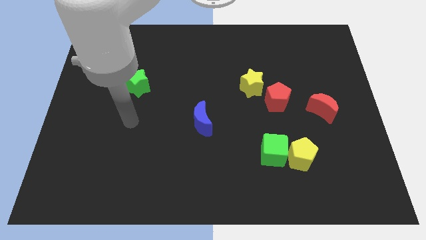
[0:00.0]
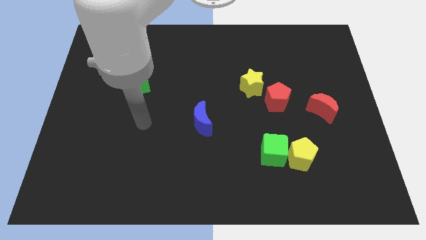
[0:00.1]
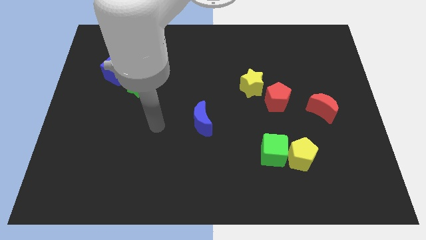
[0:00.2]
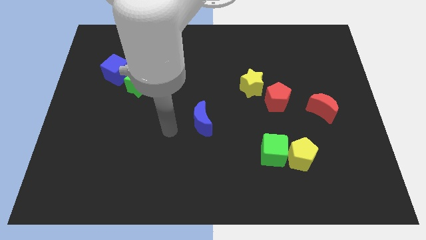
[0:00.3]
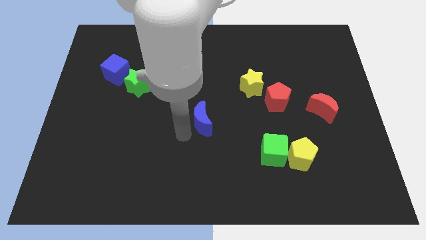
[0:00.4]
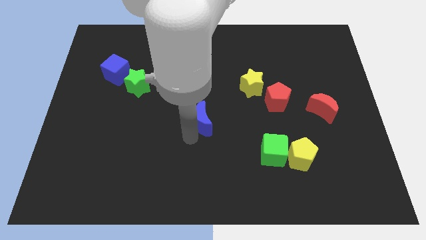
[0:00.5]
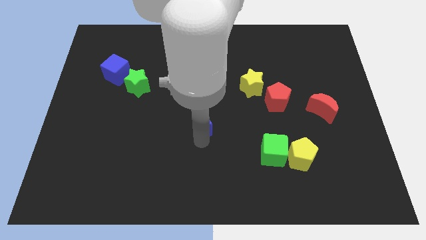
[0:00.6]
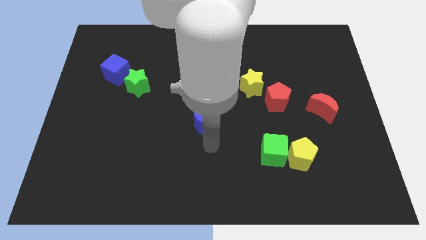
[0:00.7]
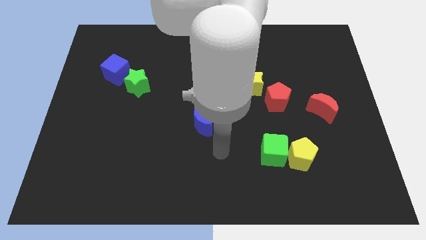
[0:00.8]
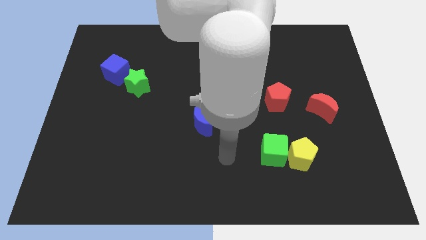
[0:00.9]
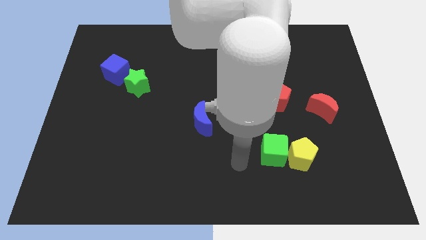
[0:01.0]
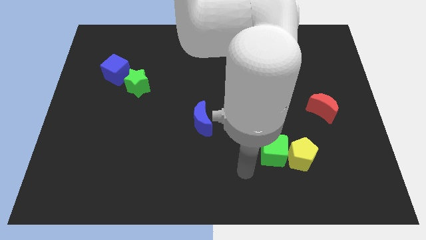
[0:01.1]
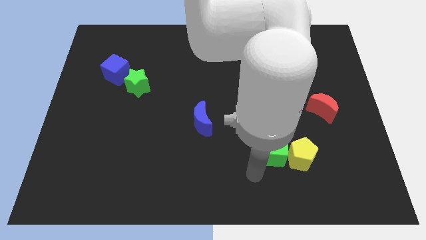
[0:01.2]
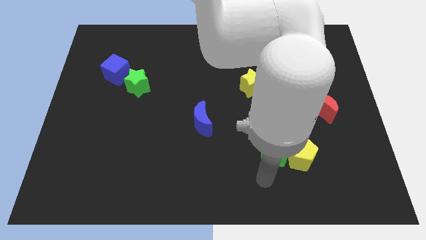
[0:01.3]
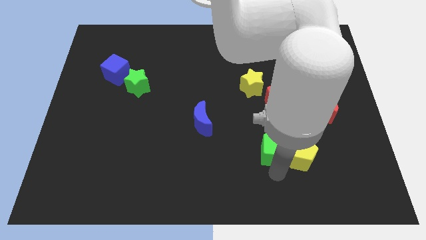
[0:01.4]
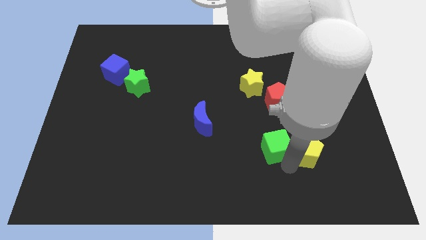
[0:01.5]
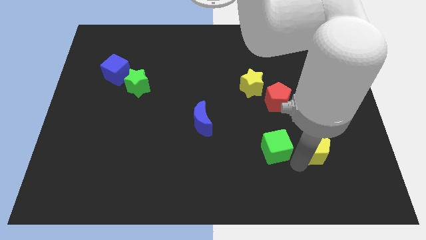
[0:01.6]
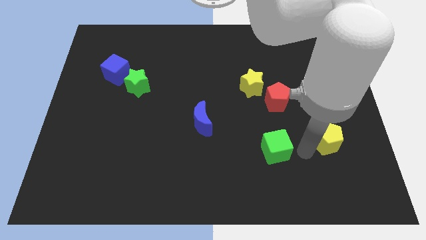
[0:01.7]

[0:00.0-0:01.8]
move the green cube away from the yellow pentagon

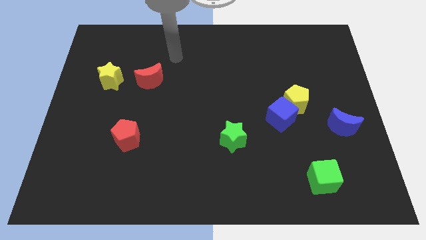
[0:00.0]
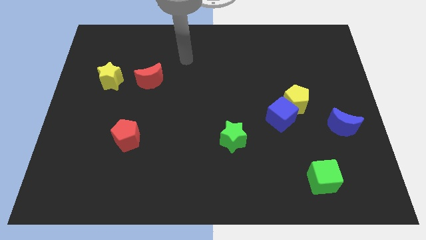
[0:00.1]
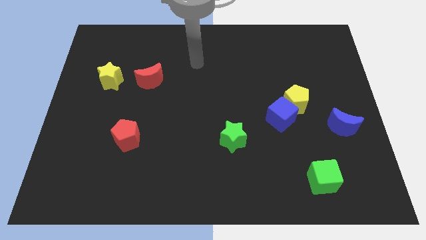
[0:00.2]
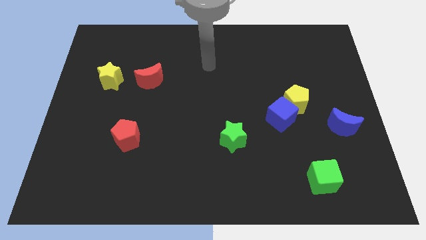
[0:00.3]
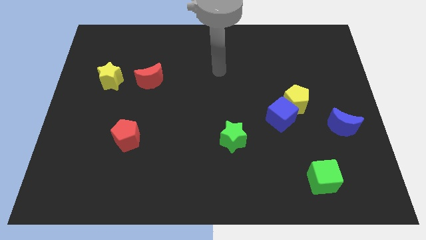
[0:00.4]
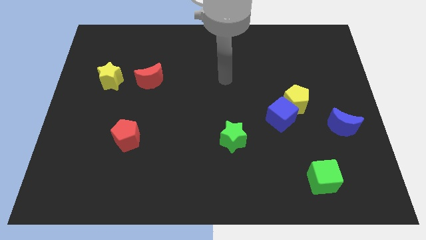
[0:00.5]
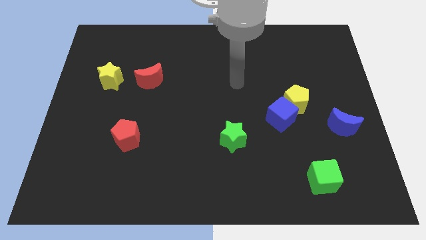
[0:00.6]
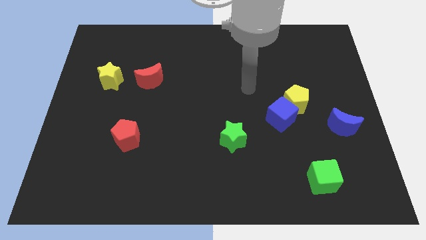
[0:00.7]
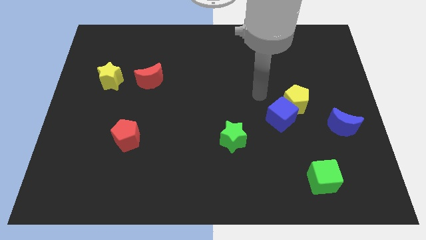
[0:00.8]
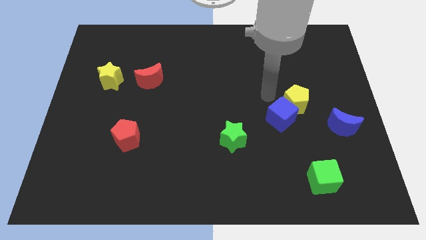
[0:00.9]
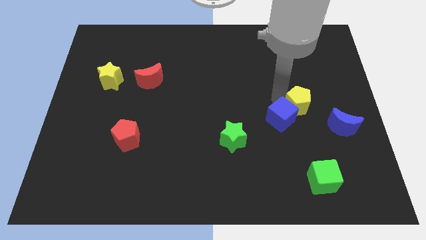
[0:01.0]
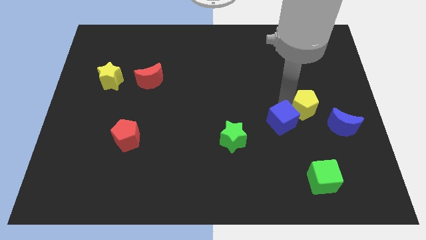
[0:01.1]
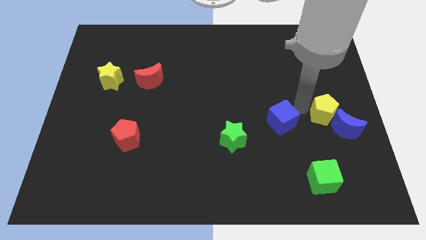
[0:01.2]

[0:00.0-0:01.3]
pull the blue cube apart from the yellow pentagon

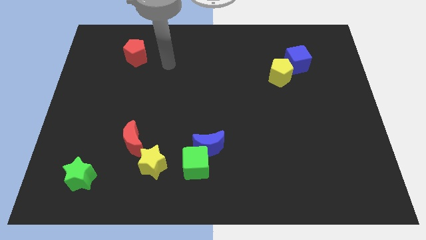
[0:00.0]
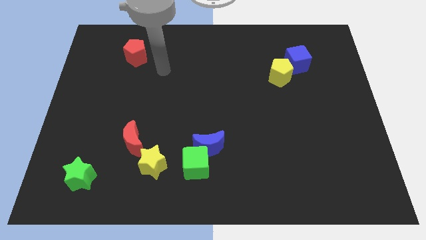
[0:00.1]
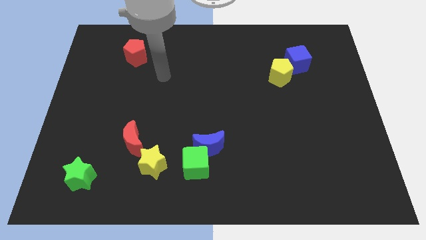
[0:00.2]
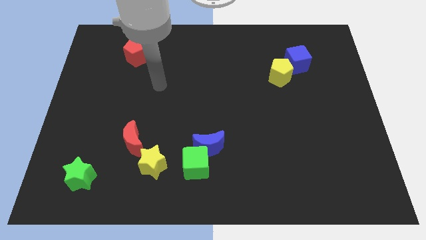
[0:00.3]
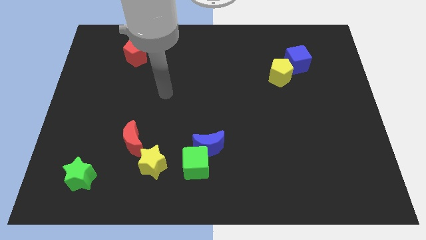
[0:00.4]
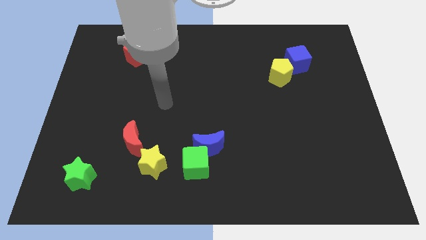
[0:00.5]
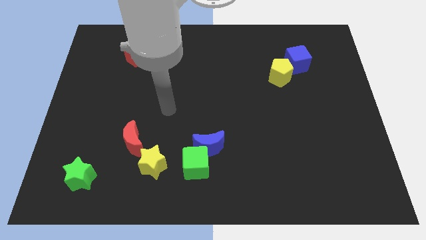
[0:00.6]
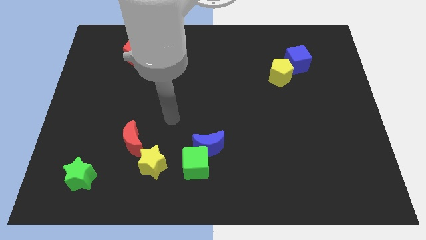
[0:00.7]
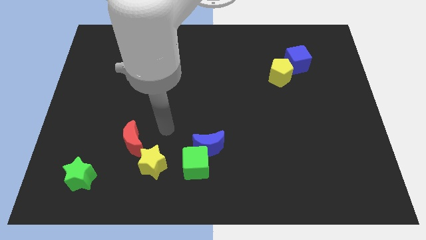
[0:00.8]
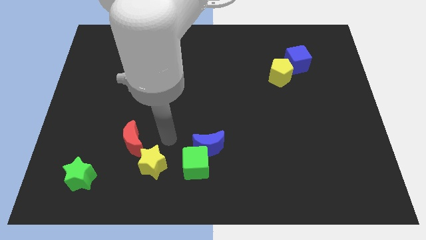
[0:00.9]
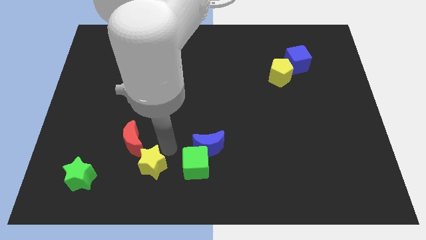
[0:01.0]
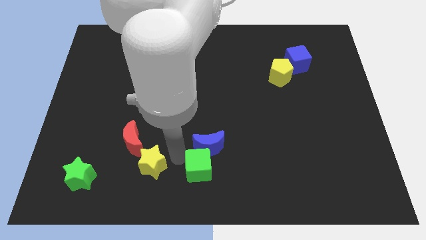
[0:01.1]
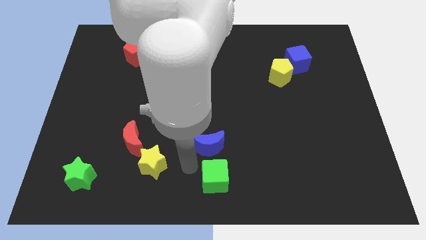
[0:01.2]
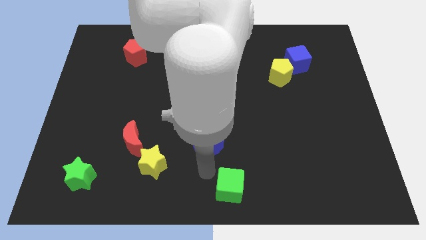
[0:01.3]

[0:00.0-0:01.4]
pull the blue moon apart from the green cube

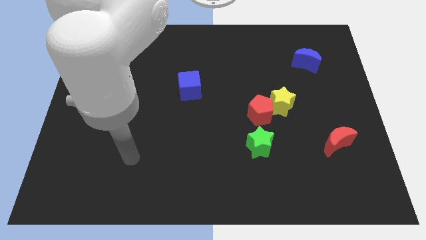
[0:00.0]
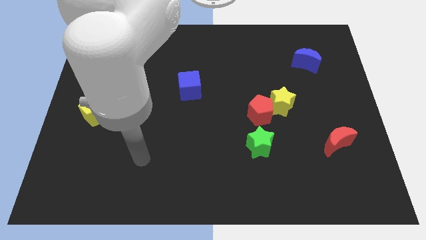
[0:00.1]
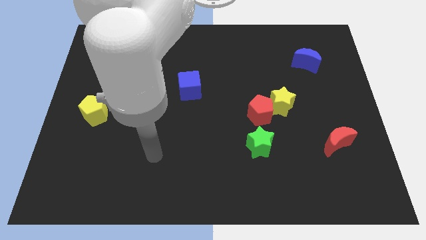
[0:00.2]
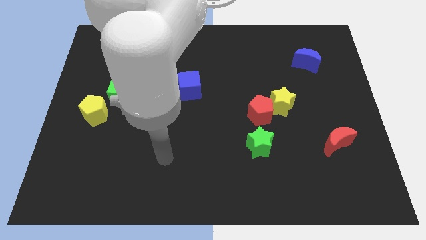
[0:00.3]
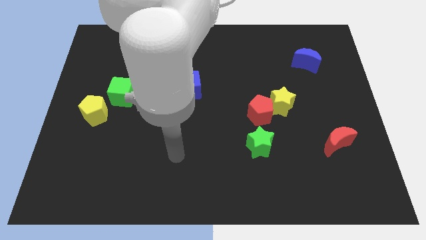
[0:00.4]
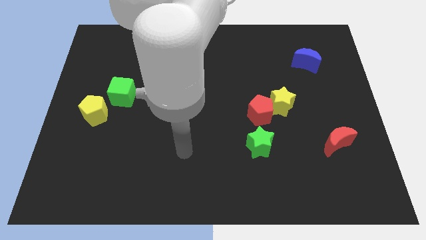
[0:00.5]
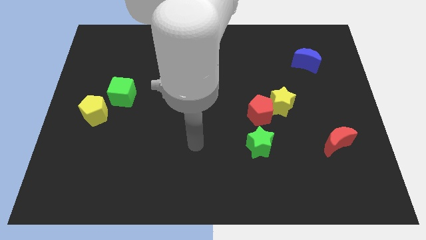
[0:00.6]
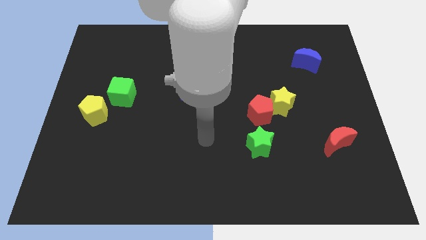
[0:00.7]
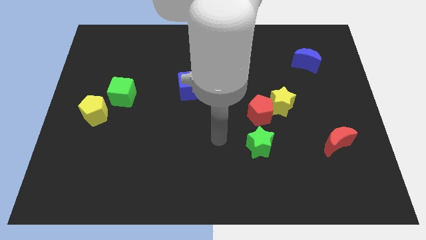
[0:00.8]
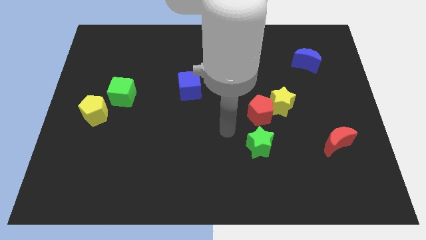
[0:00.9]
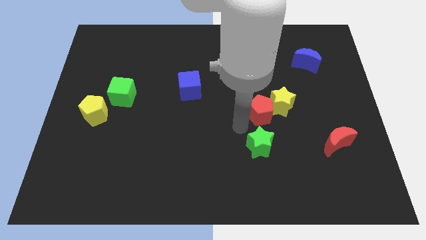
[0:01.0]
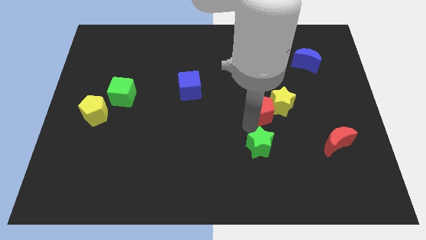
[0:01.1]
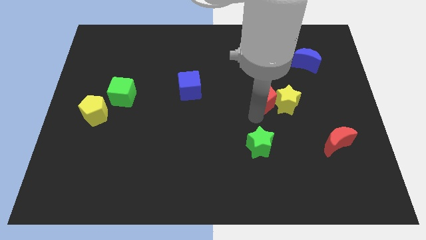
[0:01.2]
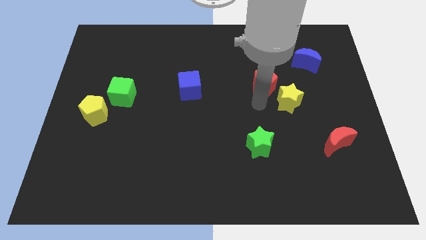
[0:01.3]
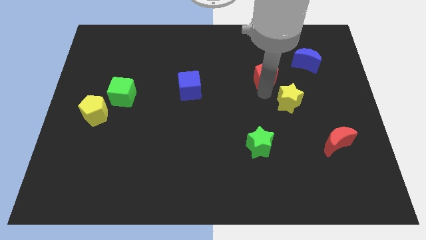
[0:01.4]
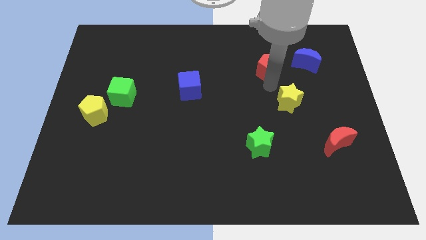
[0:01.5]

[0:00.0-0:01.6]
separate the yellow star from the red pentagon

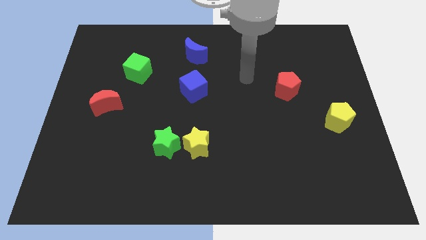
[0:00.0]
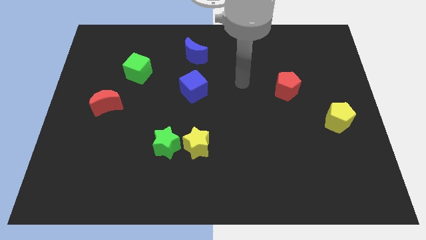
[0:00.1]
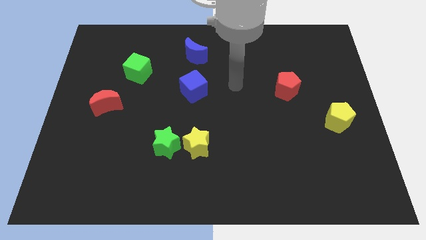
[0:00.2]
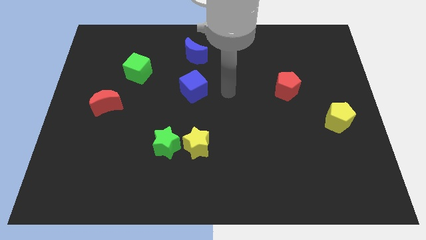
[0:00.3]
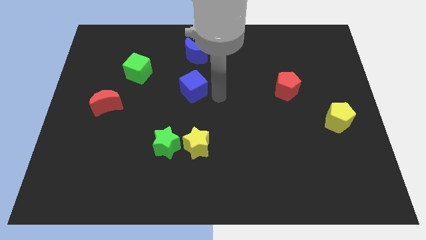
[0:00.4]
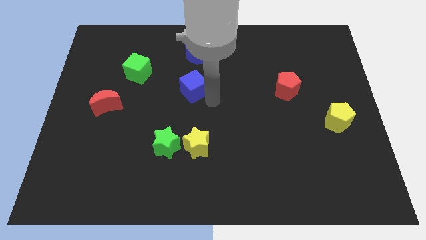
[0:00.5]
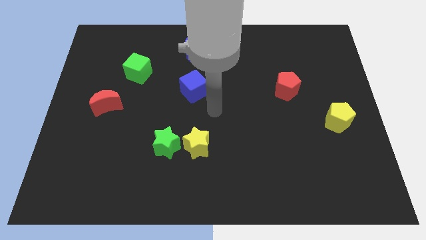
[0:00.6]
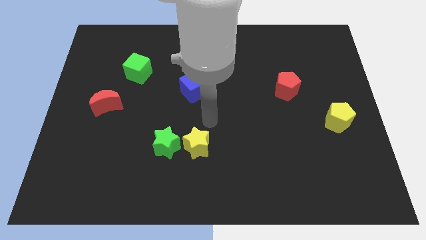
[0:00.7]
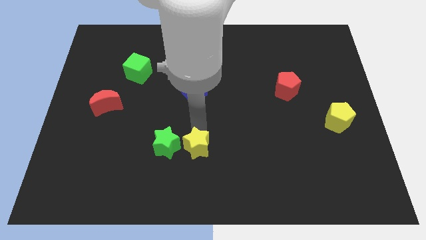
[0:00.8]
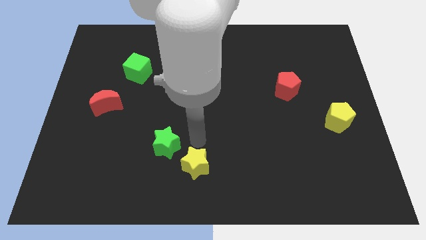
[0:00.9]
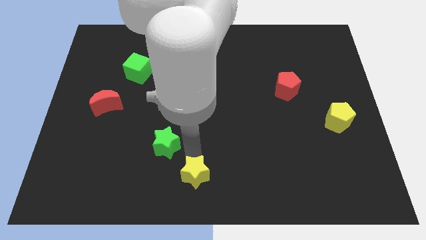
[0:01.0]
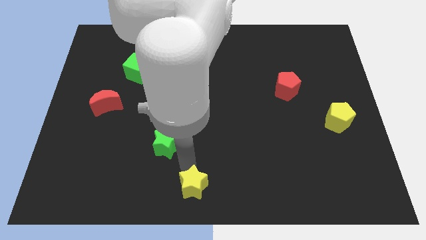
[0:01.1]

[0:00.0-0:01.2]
move the green star away from the yellow star

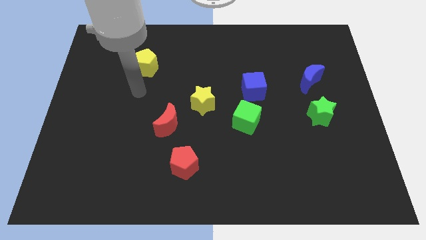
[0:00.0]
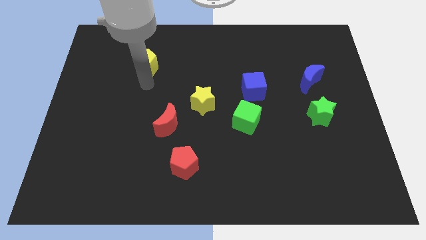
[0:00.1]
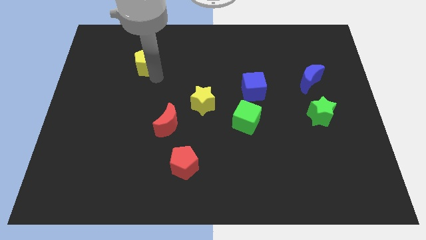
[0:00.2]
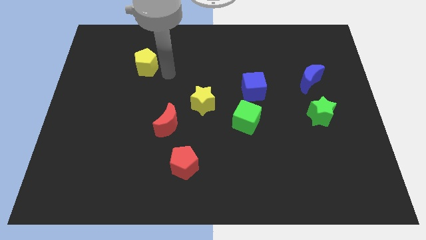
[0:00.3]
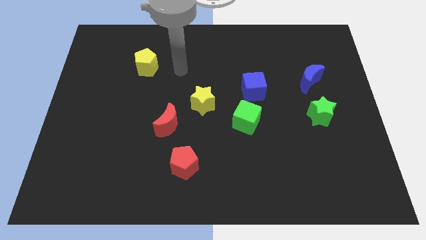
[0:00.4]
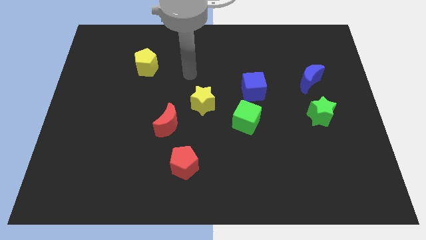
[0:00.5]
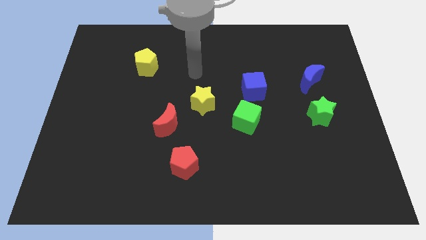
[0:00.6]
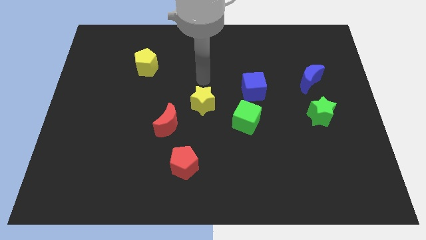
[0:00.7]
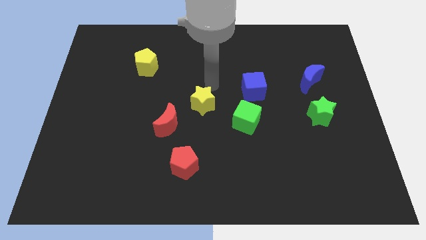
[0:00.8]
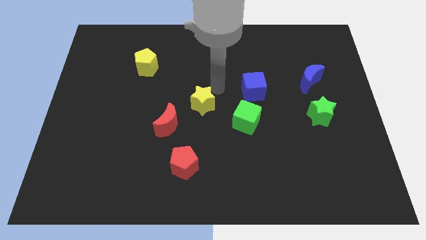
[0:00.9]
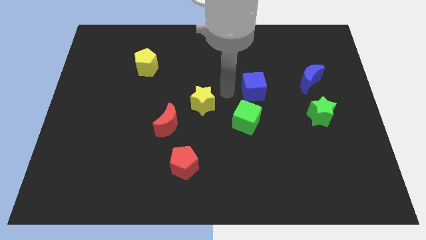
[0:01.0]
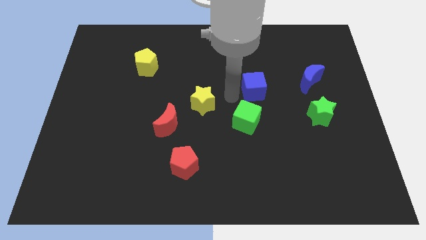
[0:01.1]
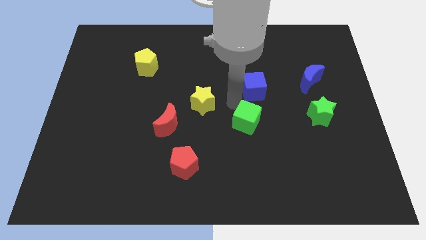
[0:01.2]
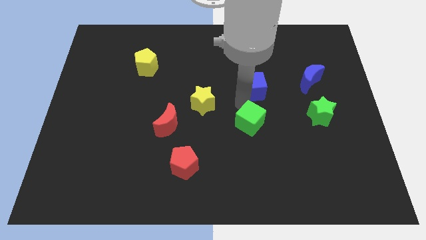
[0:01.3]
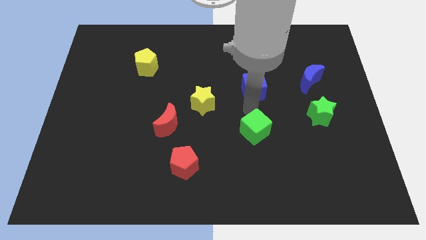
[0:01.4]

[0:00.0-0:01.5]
move the blue cube away from the green cube

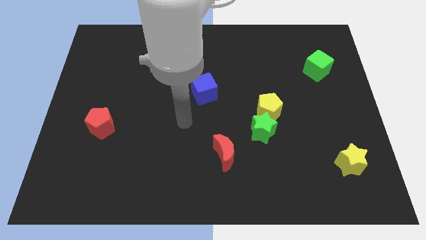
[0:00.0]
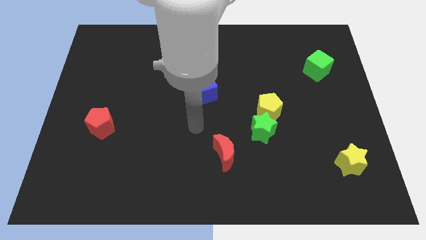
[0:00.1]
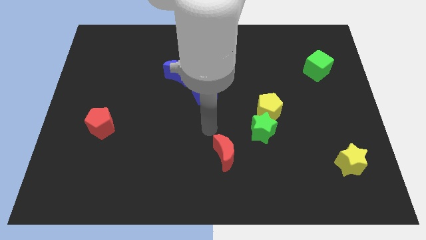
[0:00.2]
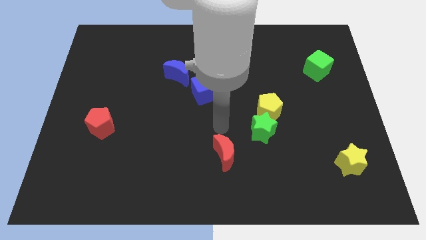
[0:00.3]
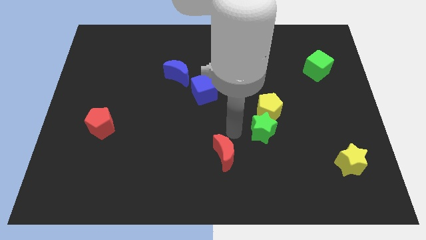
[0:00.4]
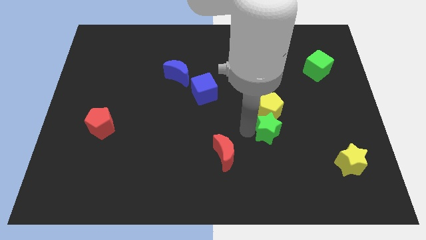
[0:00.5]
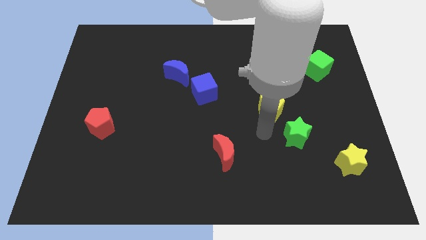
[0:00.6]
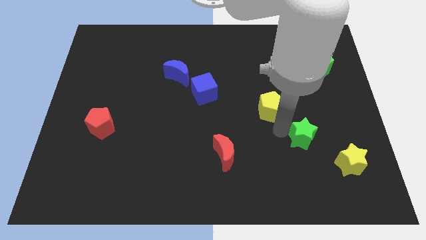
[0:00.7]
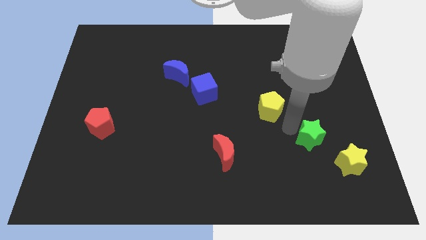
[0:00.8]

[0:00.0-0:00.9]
move the yellow pentagon away from the green star
